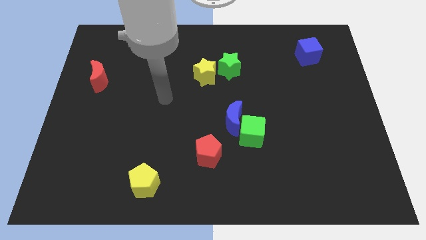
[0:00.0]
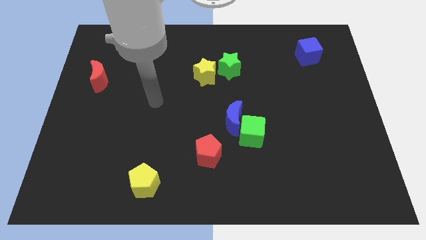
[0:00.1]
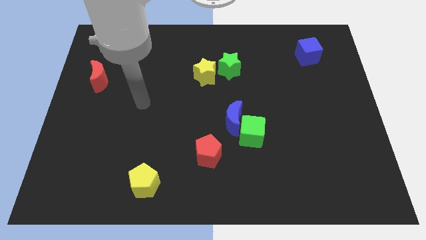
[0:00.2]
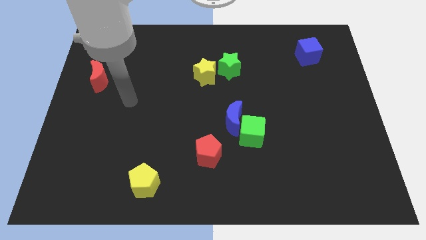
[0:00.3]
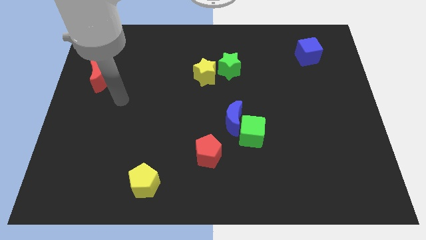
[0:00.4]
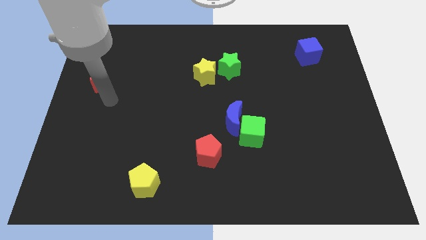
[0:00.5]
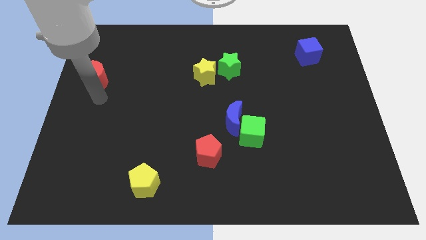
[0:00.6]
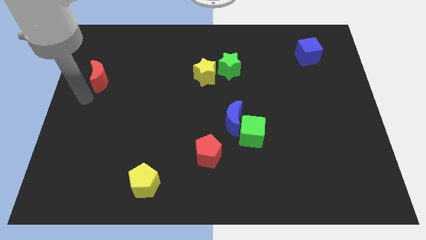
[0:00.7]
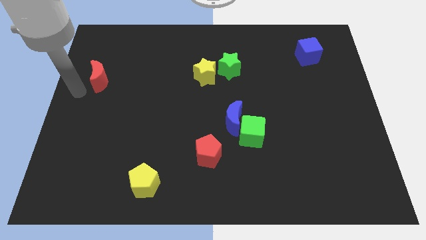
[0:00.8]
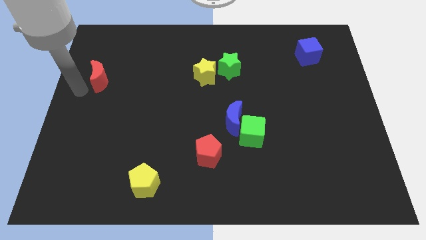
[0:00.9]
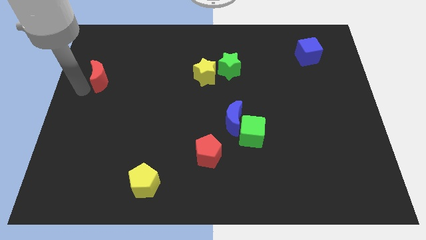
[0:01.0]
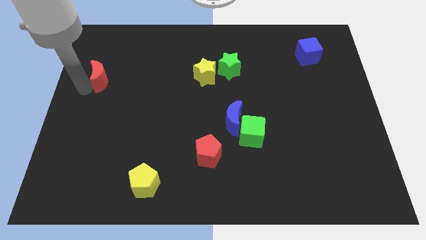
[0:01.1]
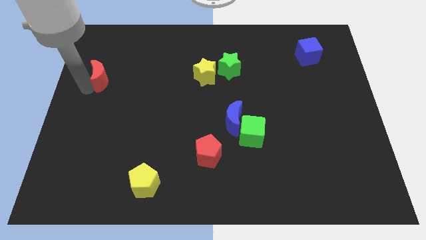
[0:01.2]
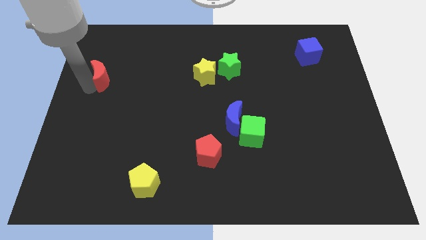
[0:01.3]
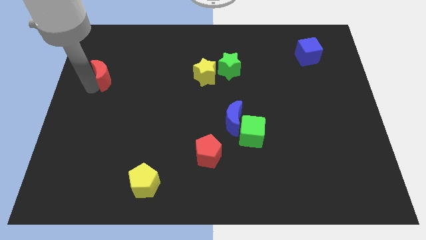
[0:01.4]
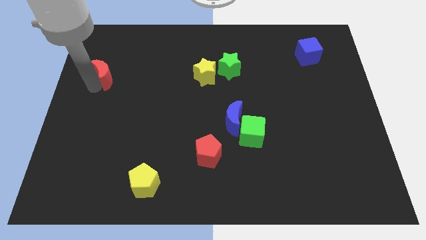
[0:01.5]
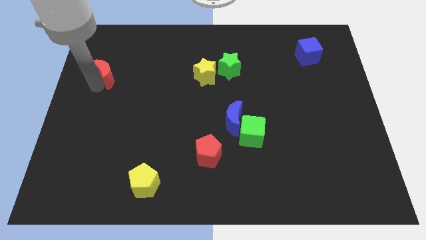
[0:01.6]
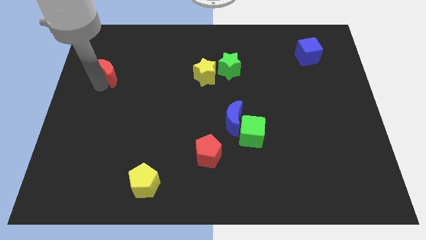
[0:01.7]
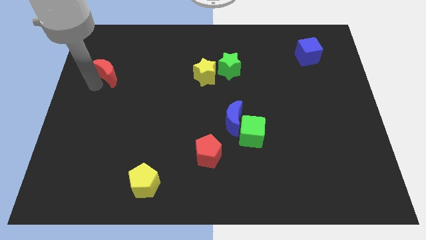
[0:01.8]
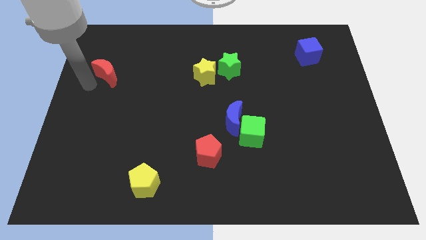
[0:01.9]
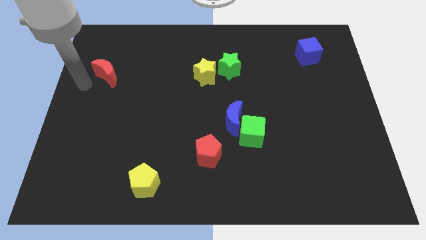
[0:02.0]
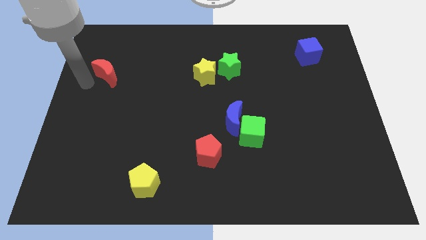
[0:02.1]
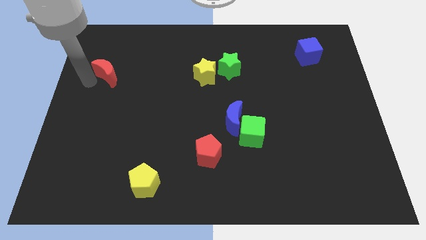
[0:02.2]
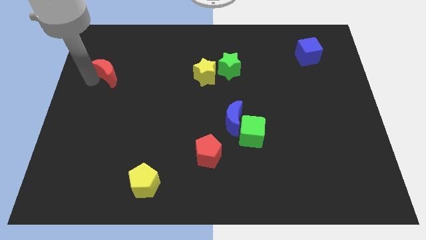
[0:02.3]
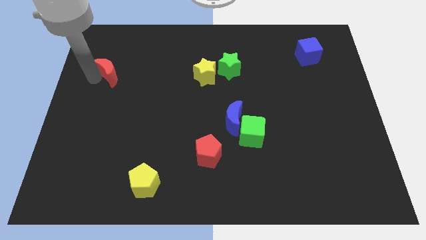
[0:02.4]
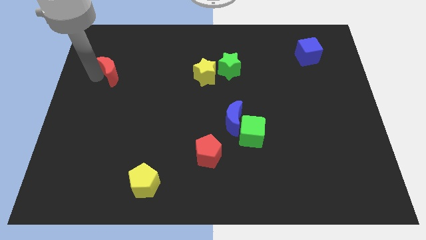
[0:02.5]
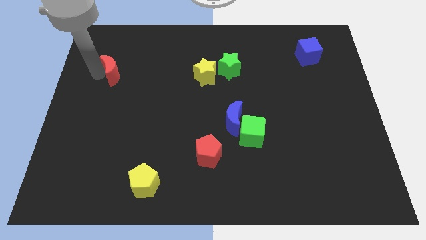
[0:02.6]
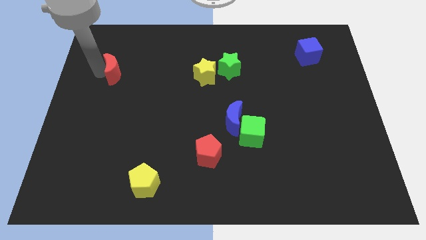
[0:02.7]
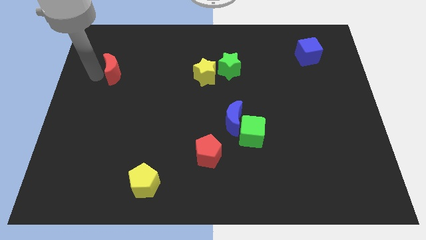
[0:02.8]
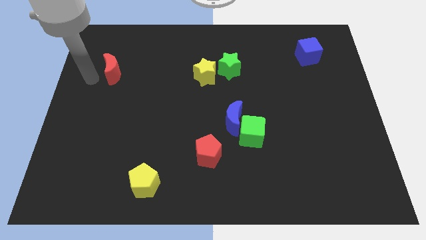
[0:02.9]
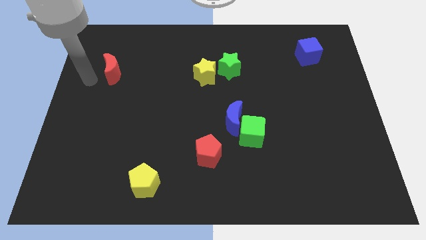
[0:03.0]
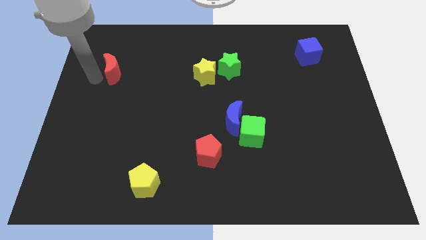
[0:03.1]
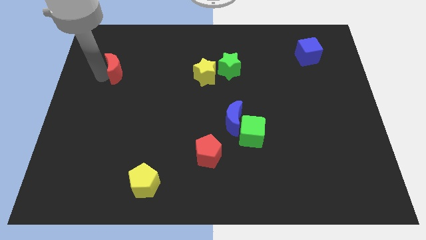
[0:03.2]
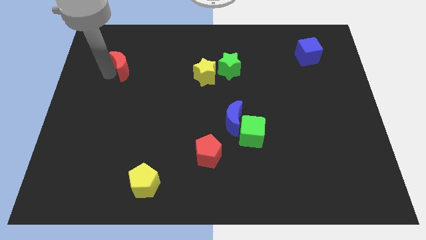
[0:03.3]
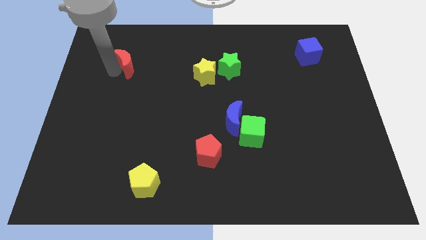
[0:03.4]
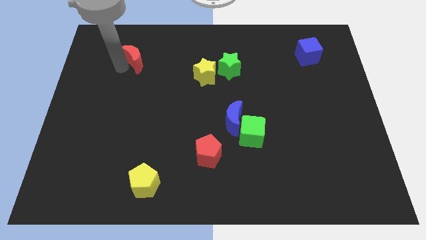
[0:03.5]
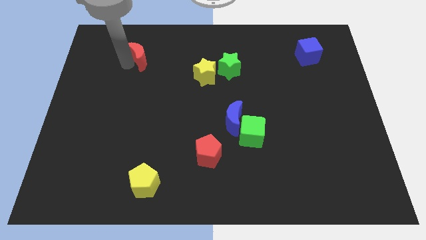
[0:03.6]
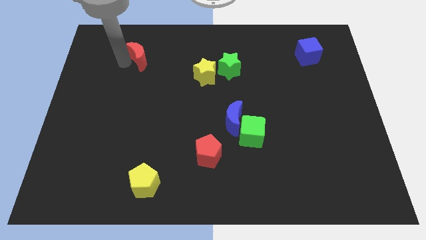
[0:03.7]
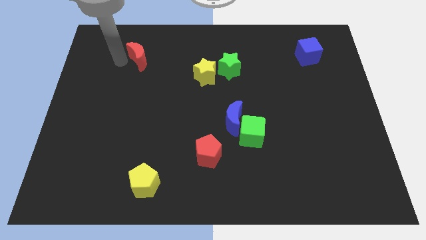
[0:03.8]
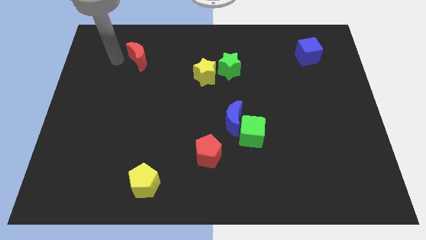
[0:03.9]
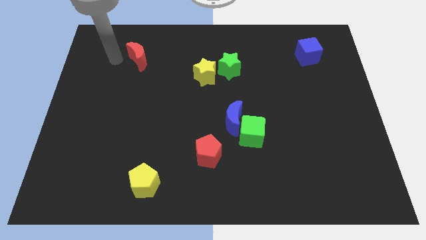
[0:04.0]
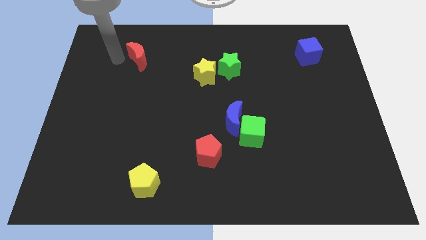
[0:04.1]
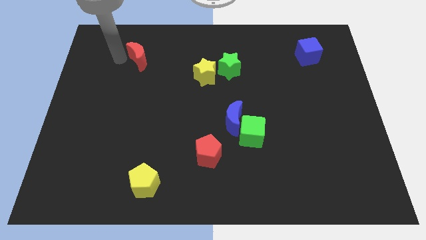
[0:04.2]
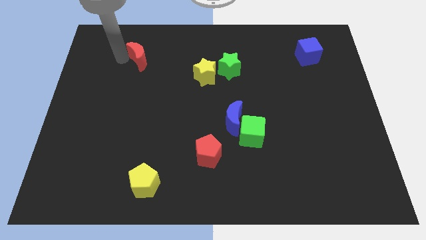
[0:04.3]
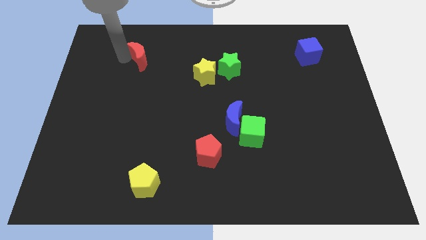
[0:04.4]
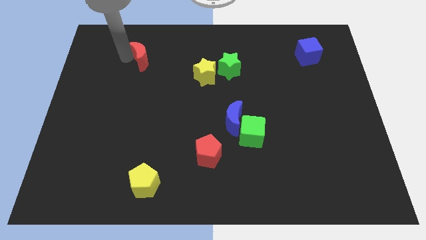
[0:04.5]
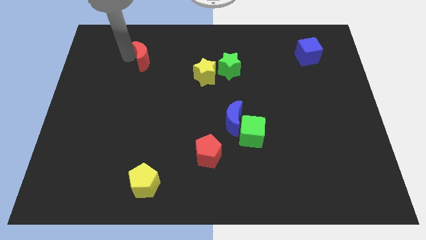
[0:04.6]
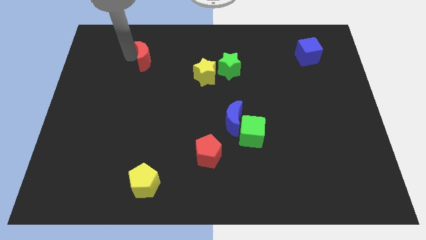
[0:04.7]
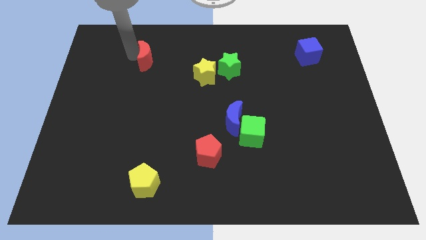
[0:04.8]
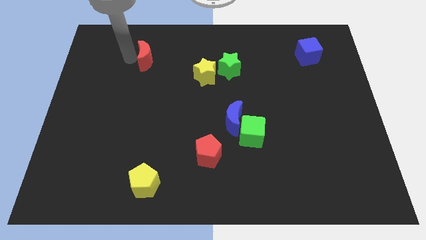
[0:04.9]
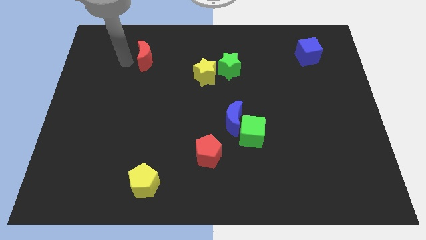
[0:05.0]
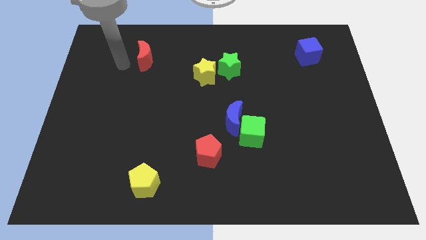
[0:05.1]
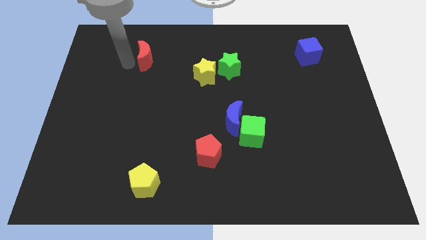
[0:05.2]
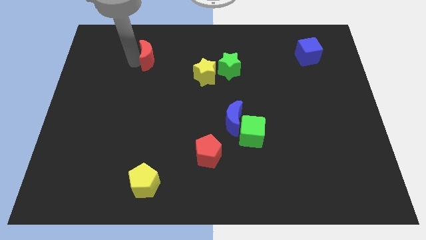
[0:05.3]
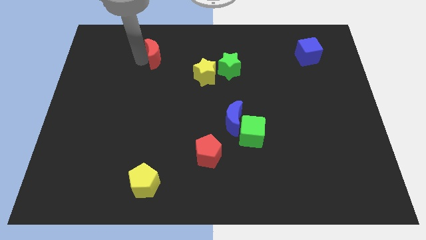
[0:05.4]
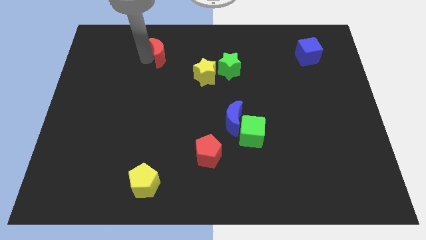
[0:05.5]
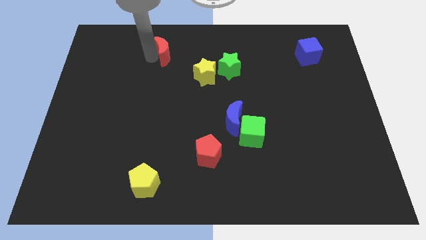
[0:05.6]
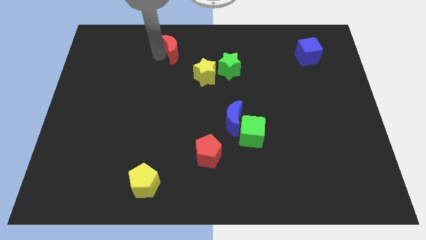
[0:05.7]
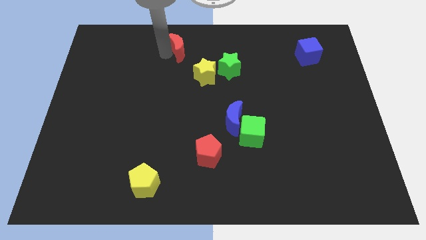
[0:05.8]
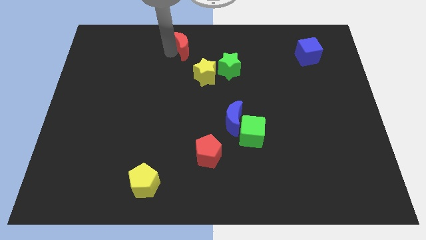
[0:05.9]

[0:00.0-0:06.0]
put the red moon to the top side
